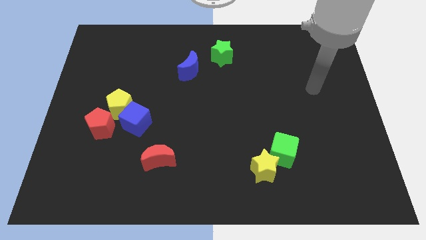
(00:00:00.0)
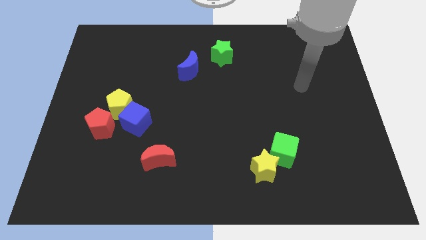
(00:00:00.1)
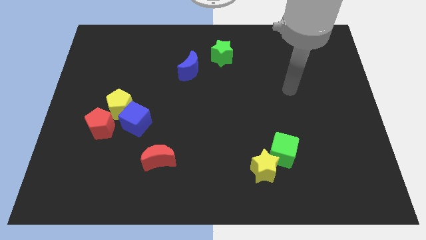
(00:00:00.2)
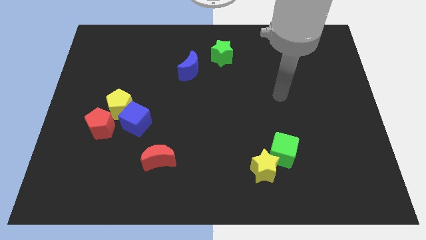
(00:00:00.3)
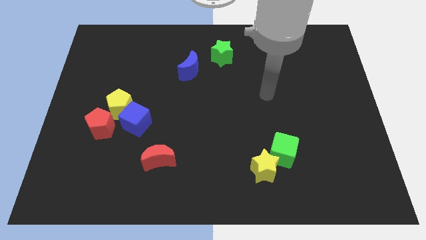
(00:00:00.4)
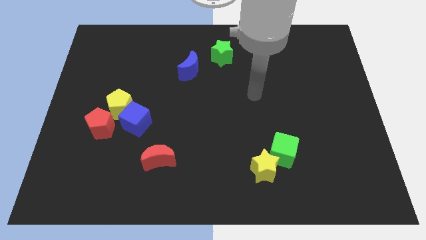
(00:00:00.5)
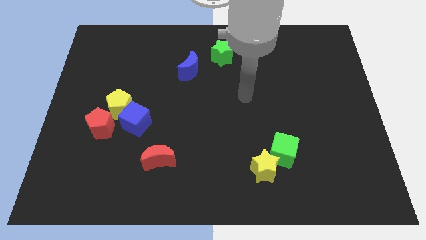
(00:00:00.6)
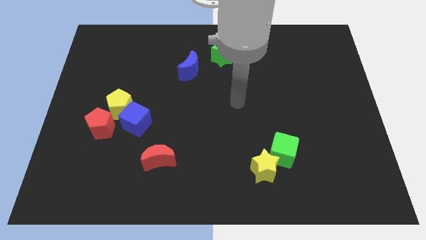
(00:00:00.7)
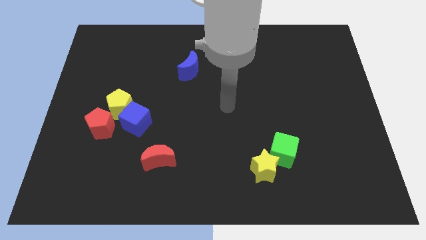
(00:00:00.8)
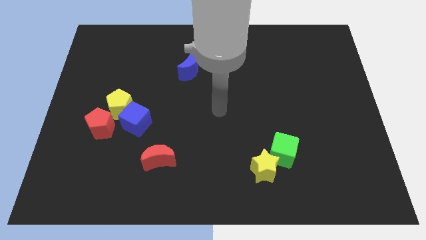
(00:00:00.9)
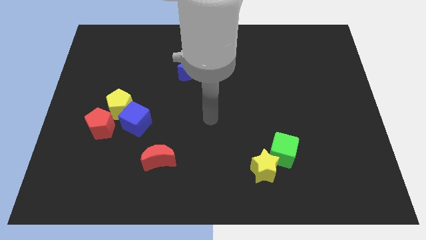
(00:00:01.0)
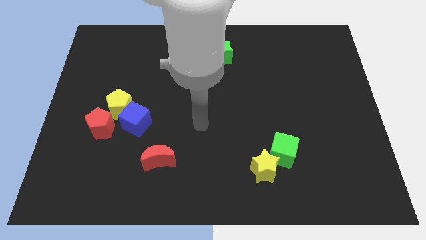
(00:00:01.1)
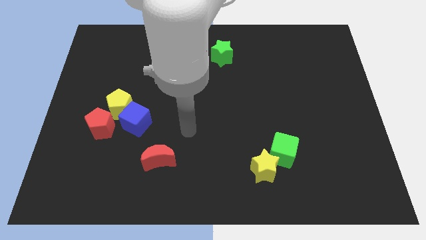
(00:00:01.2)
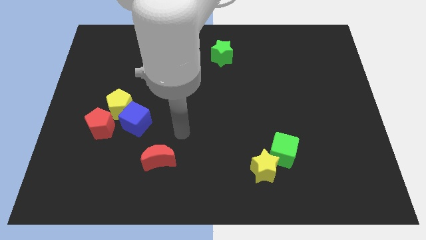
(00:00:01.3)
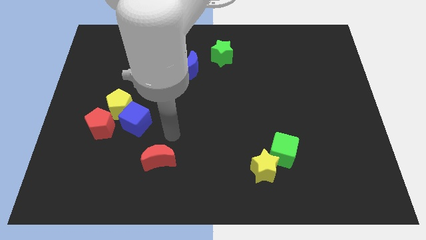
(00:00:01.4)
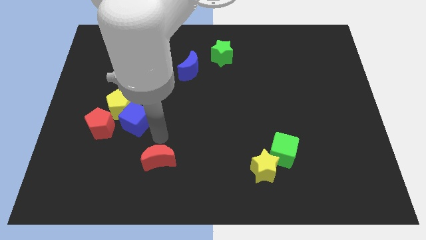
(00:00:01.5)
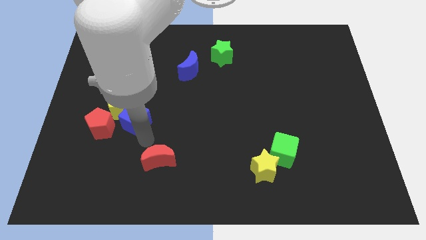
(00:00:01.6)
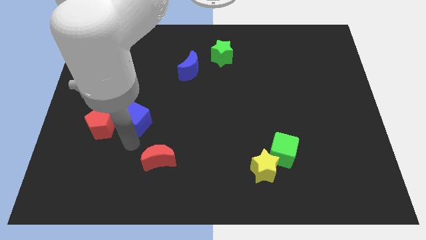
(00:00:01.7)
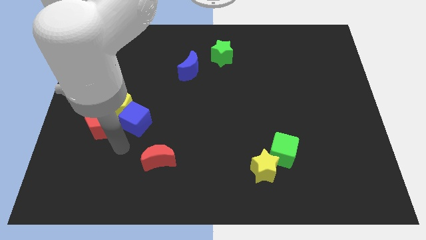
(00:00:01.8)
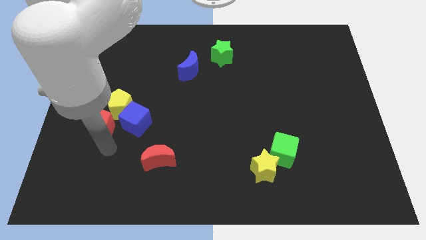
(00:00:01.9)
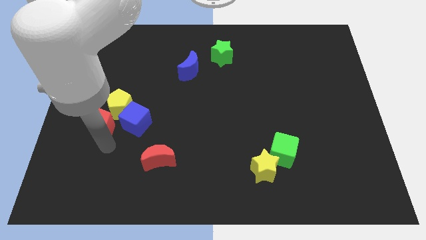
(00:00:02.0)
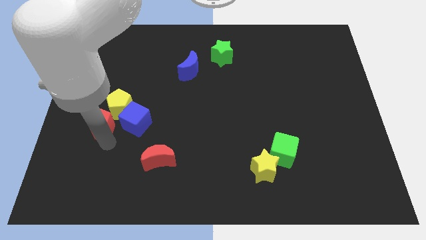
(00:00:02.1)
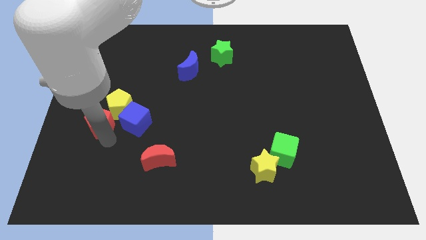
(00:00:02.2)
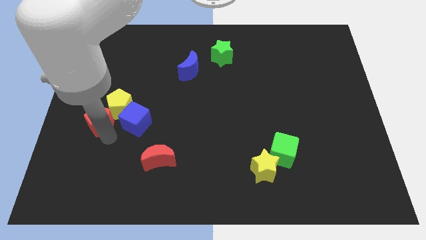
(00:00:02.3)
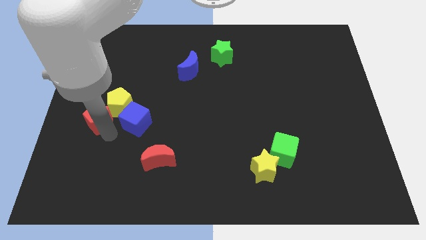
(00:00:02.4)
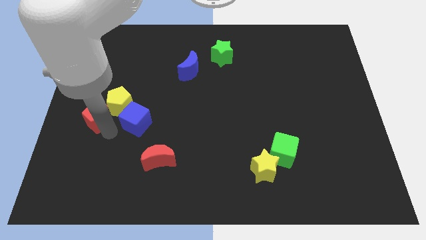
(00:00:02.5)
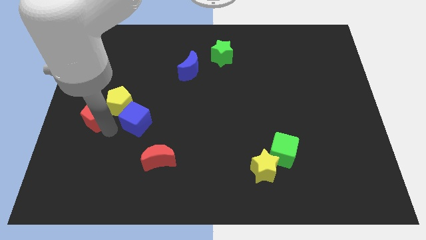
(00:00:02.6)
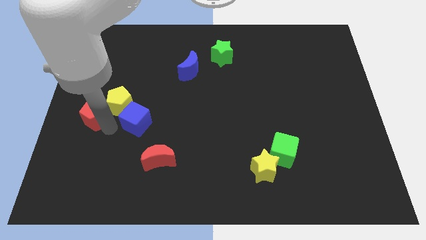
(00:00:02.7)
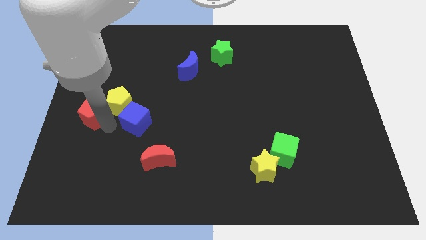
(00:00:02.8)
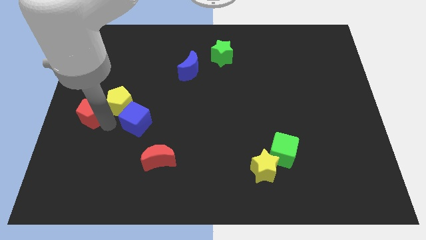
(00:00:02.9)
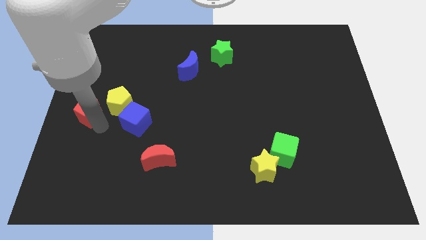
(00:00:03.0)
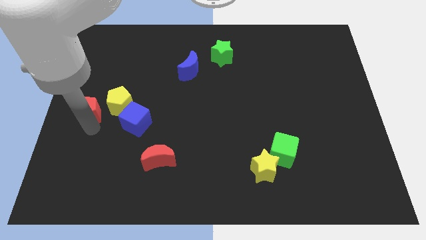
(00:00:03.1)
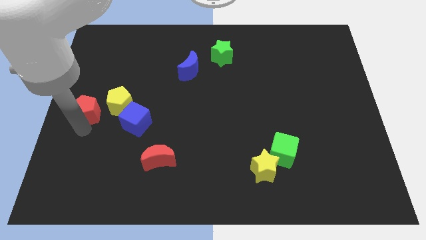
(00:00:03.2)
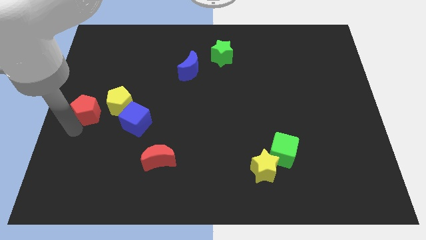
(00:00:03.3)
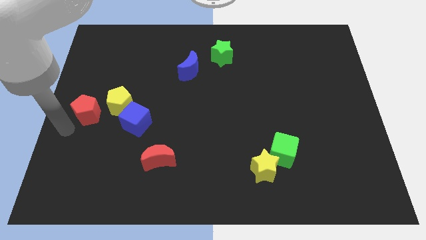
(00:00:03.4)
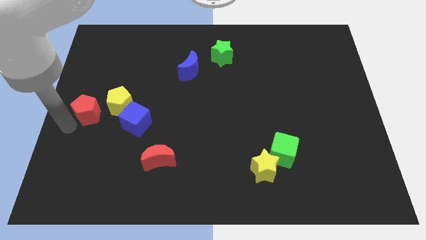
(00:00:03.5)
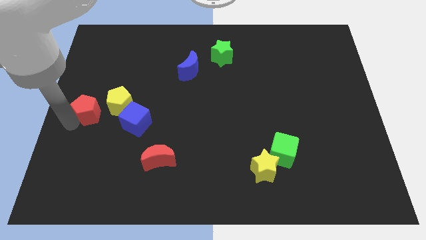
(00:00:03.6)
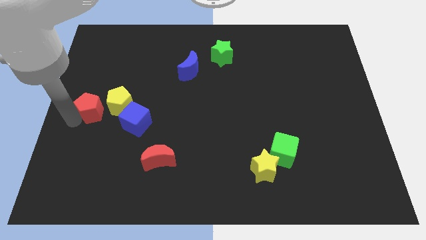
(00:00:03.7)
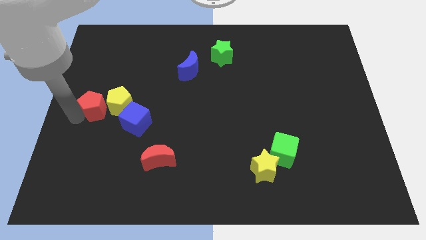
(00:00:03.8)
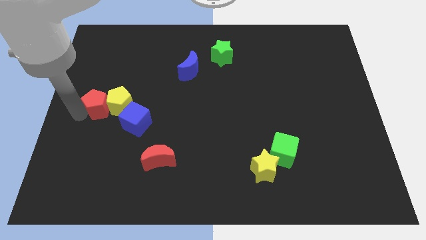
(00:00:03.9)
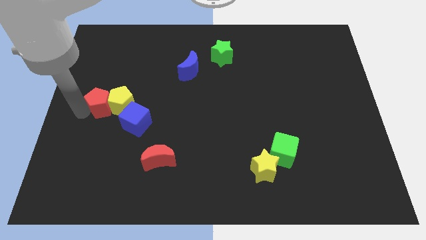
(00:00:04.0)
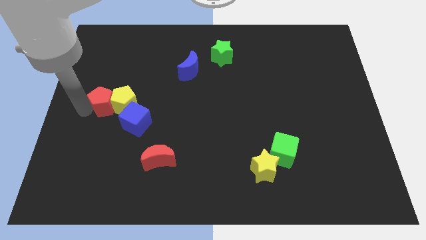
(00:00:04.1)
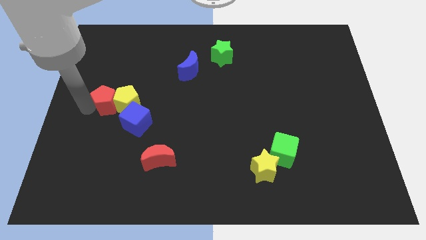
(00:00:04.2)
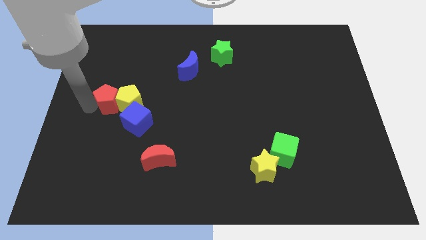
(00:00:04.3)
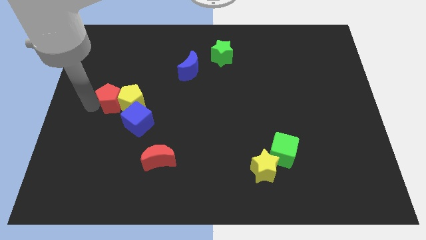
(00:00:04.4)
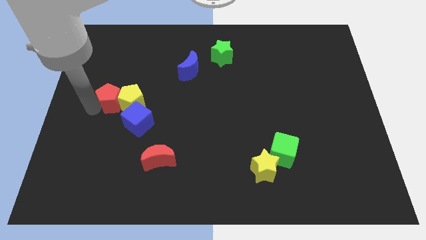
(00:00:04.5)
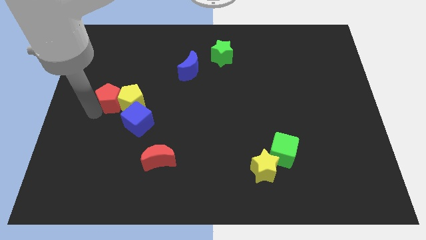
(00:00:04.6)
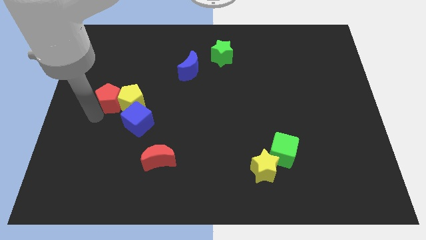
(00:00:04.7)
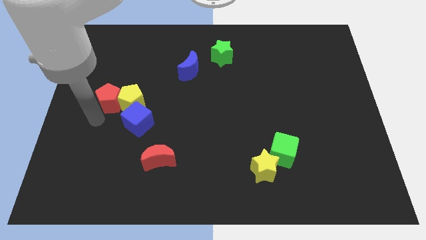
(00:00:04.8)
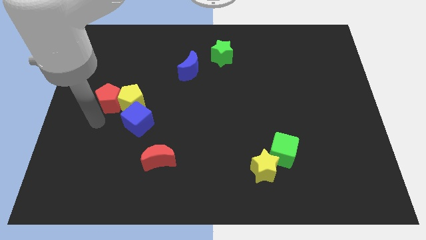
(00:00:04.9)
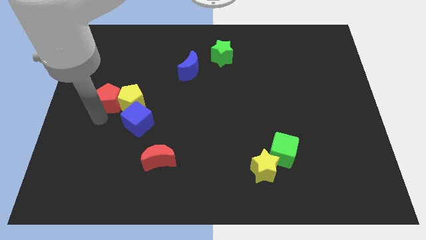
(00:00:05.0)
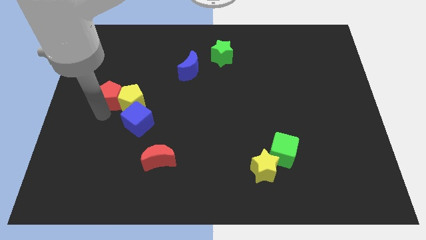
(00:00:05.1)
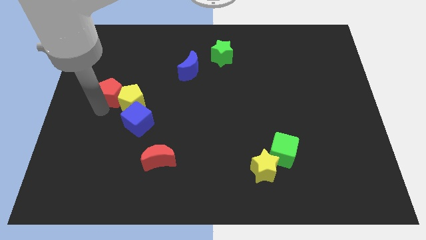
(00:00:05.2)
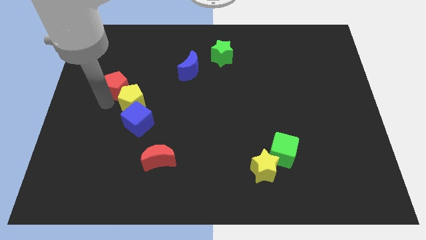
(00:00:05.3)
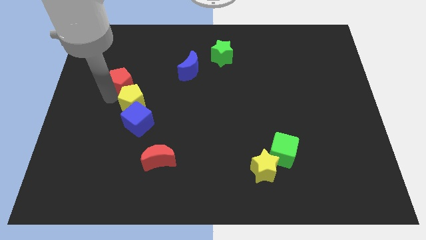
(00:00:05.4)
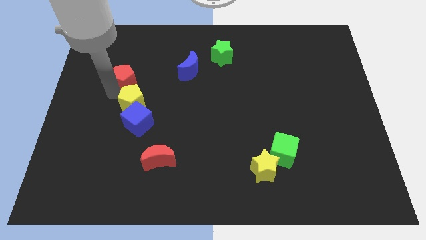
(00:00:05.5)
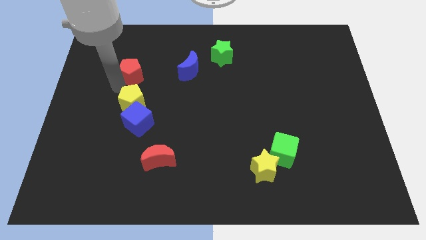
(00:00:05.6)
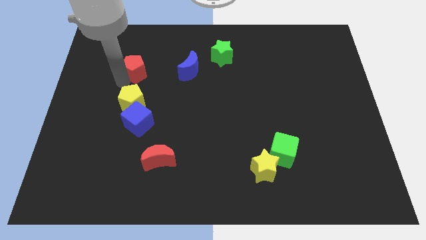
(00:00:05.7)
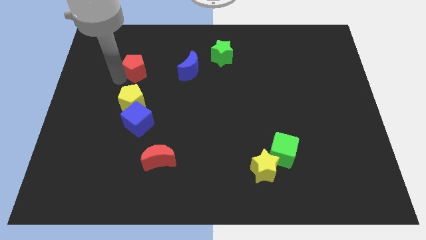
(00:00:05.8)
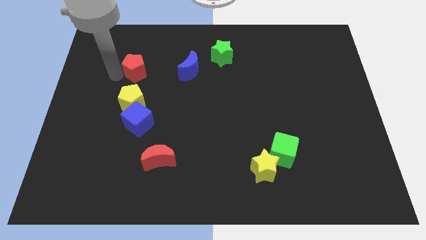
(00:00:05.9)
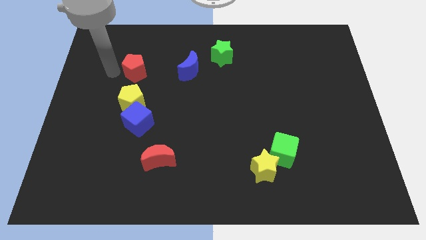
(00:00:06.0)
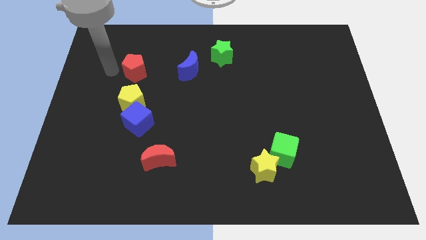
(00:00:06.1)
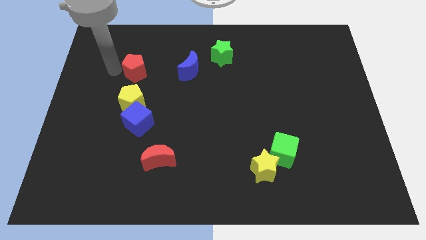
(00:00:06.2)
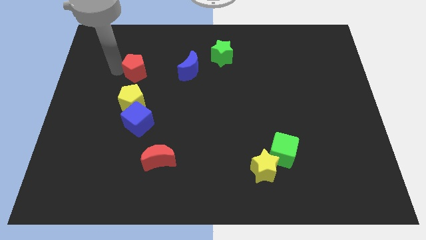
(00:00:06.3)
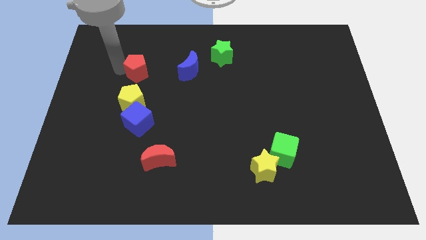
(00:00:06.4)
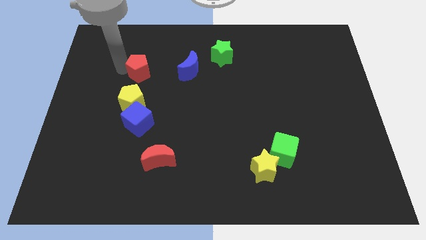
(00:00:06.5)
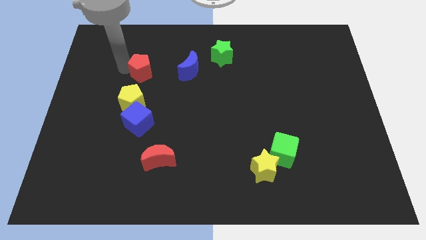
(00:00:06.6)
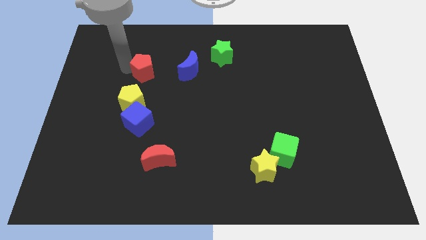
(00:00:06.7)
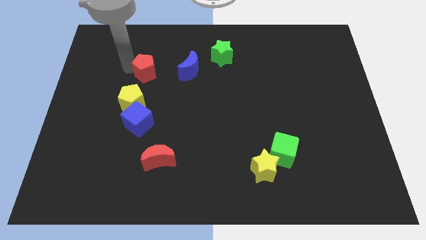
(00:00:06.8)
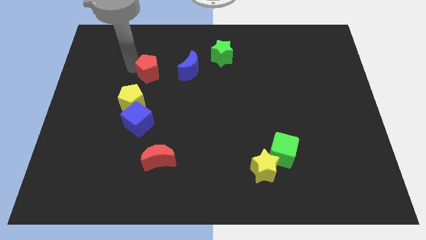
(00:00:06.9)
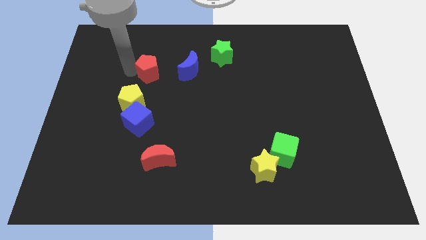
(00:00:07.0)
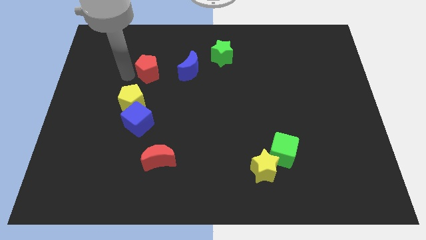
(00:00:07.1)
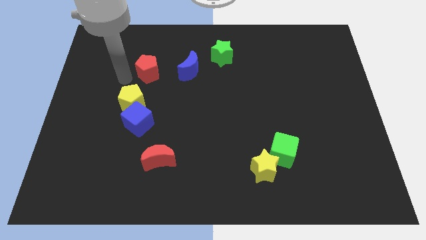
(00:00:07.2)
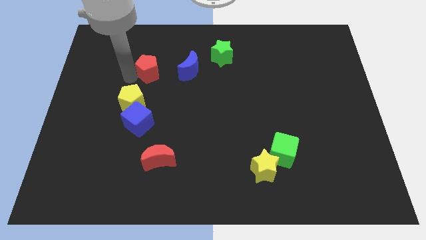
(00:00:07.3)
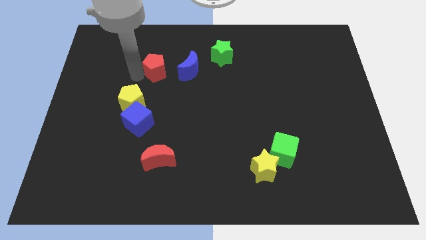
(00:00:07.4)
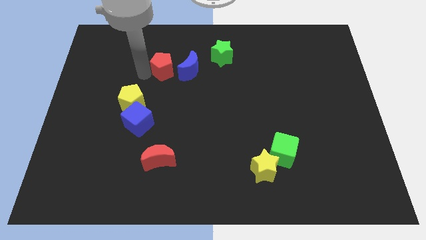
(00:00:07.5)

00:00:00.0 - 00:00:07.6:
move the red pentagon up and to the right

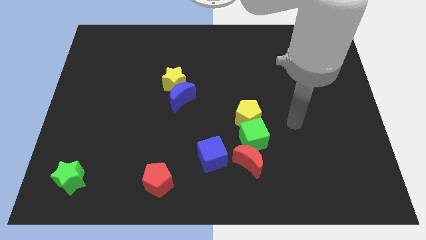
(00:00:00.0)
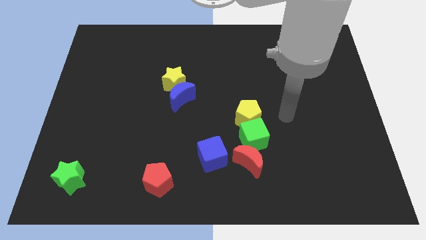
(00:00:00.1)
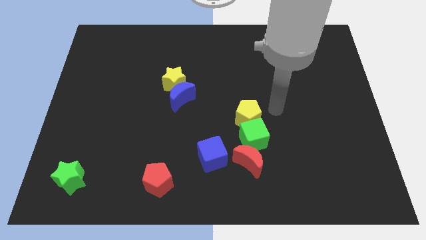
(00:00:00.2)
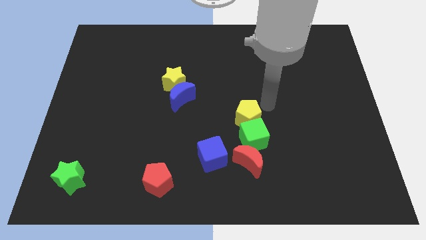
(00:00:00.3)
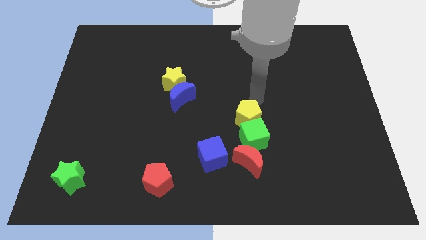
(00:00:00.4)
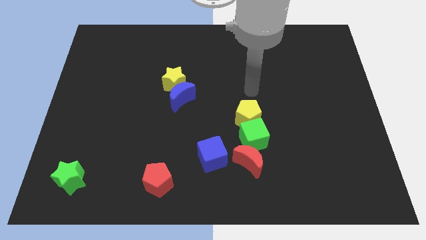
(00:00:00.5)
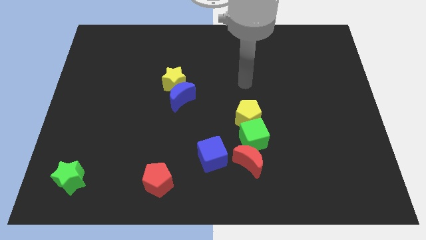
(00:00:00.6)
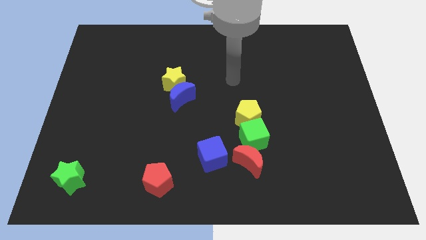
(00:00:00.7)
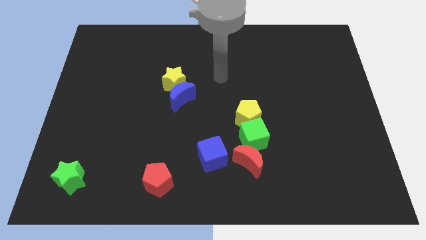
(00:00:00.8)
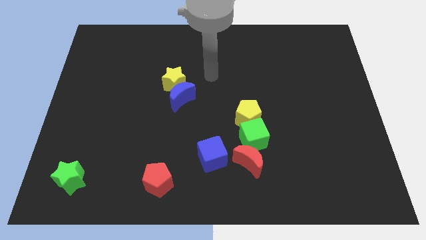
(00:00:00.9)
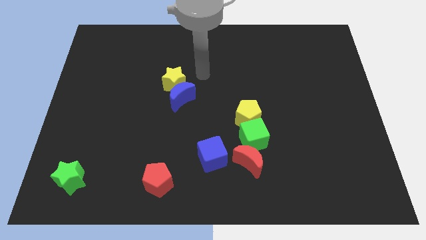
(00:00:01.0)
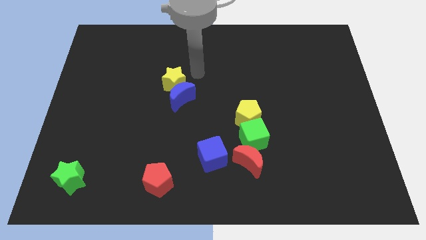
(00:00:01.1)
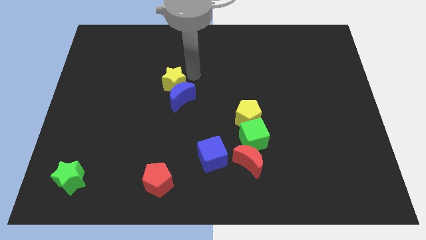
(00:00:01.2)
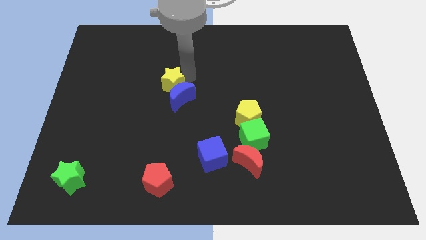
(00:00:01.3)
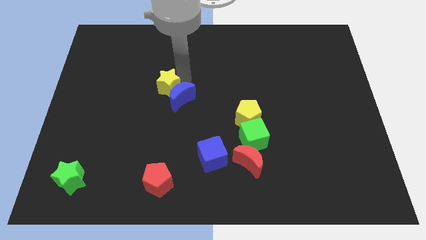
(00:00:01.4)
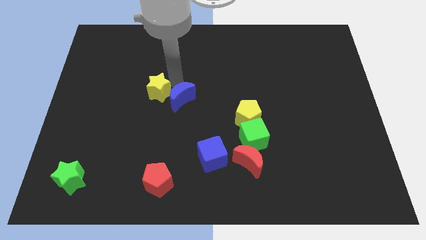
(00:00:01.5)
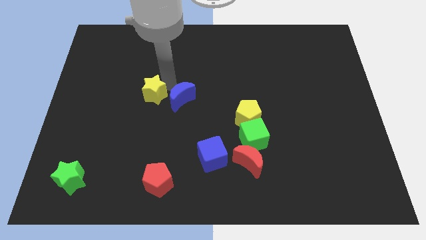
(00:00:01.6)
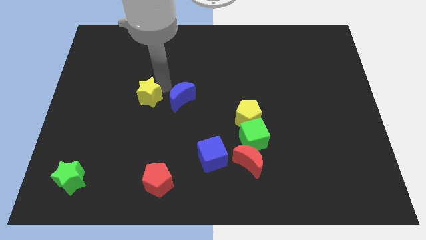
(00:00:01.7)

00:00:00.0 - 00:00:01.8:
slide the yellow star downwards and to the left diagonally a little
